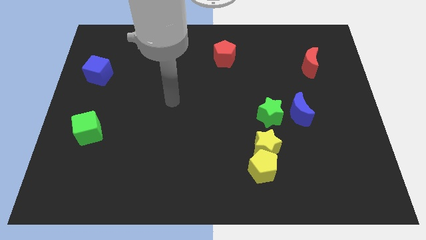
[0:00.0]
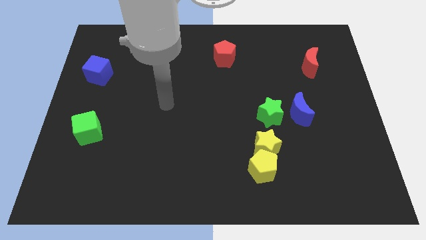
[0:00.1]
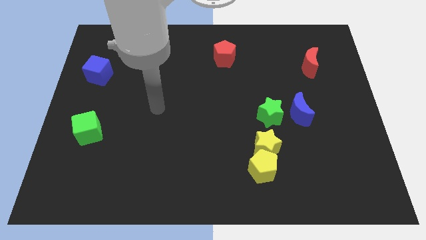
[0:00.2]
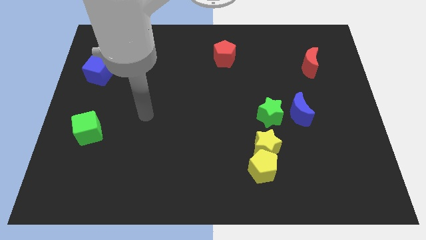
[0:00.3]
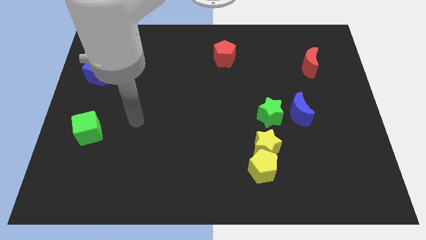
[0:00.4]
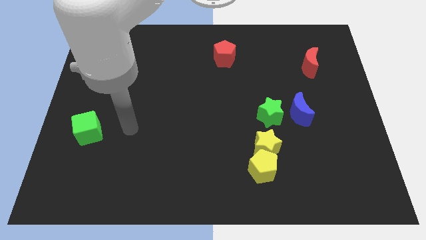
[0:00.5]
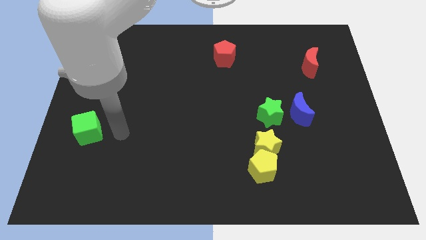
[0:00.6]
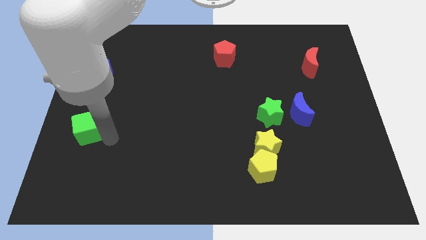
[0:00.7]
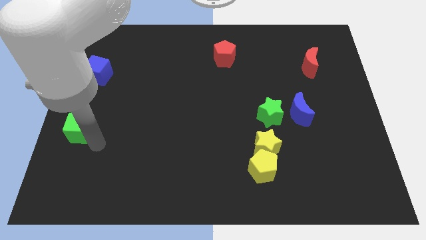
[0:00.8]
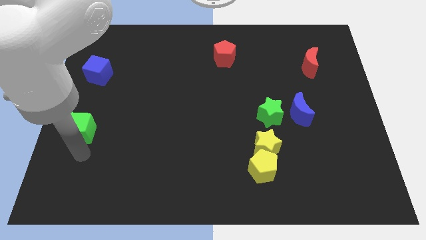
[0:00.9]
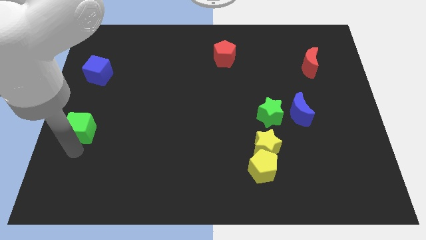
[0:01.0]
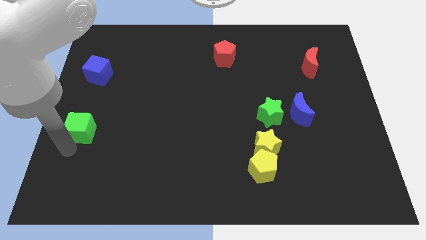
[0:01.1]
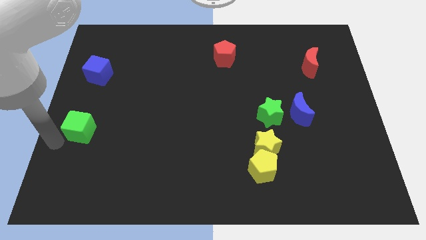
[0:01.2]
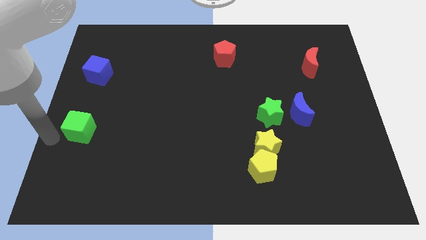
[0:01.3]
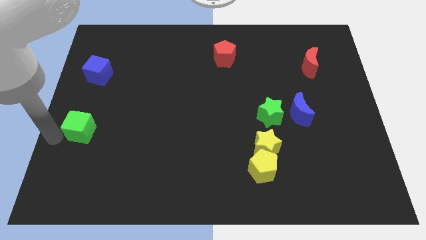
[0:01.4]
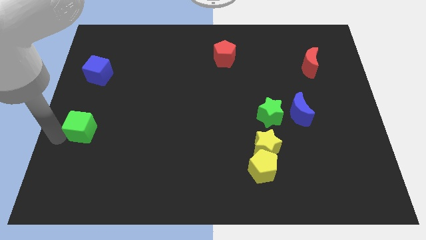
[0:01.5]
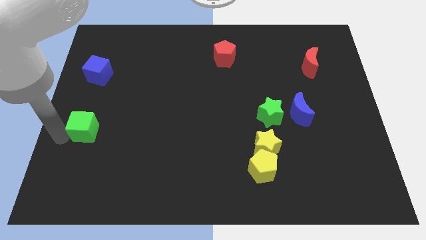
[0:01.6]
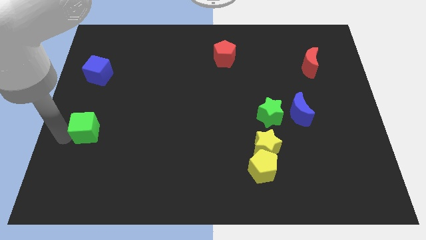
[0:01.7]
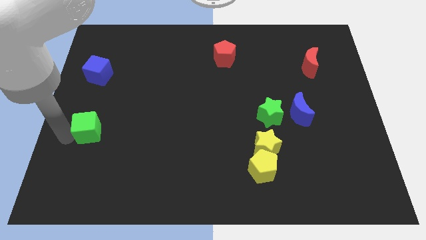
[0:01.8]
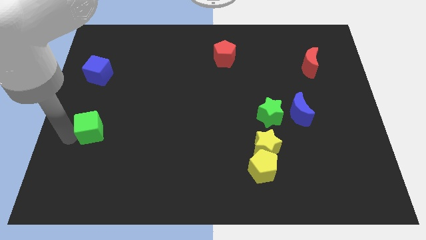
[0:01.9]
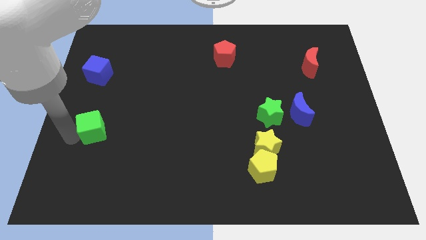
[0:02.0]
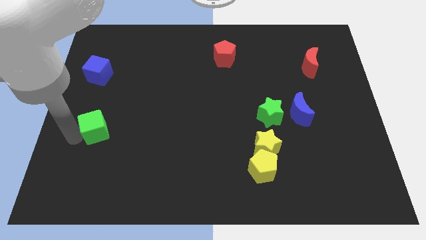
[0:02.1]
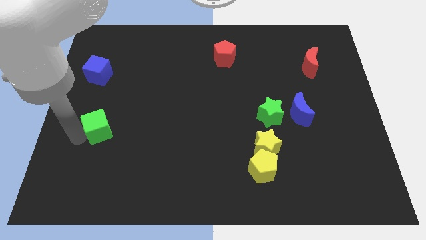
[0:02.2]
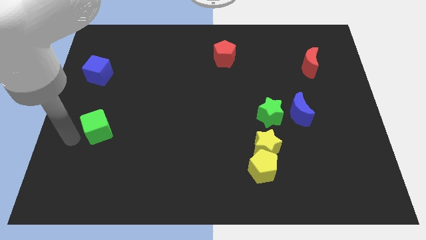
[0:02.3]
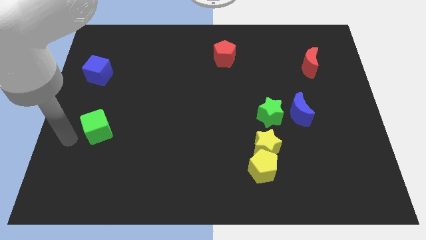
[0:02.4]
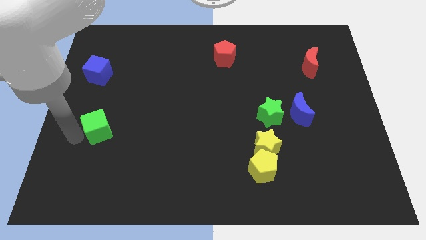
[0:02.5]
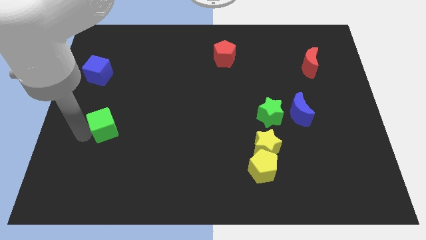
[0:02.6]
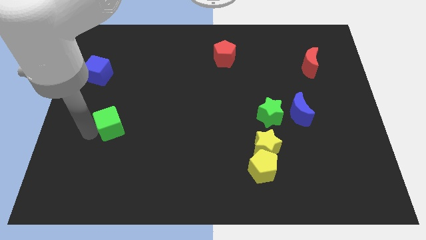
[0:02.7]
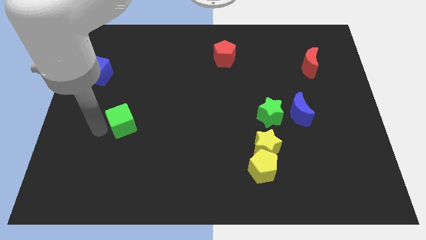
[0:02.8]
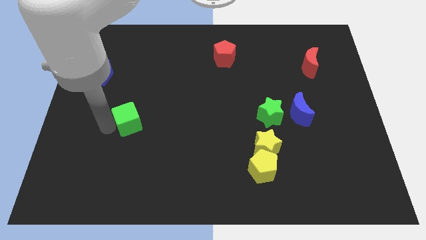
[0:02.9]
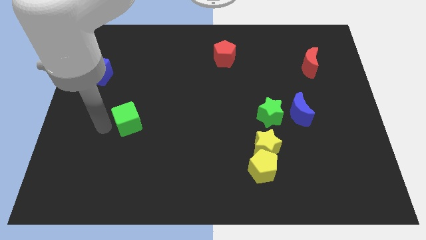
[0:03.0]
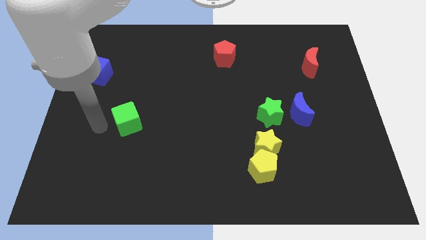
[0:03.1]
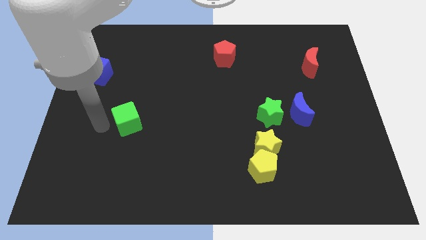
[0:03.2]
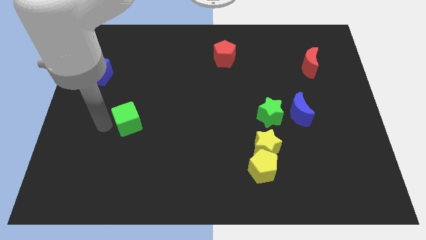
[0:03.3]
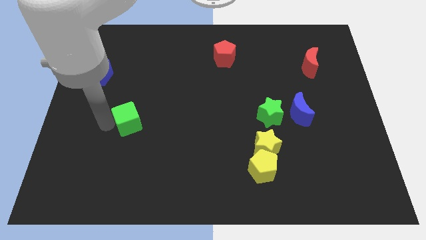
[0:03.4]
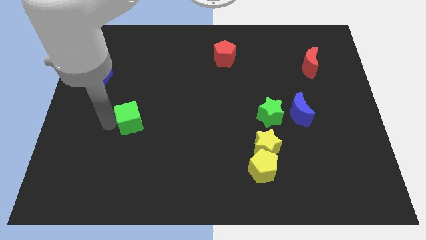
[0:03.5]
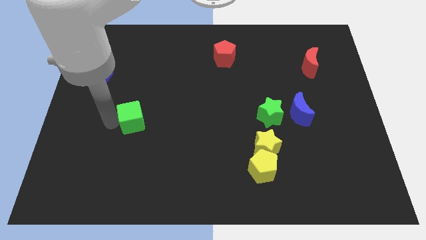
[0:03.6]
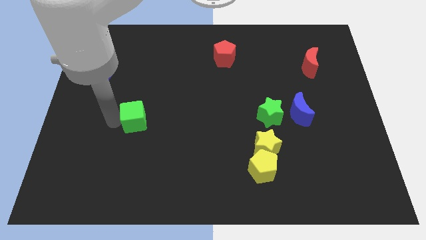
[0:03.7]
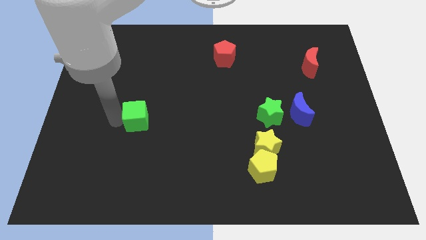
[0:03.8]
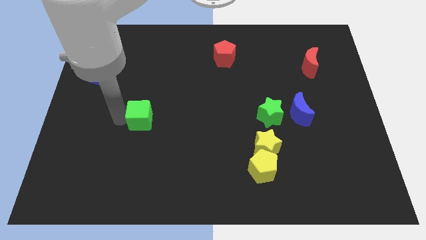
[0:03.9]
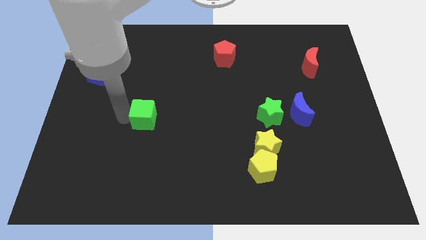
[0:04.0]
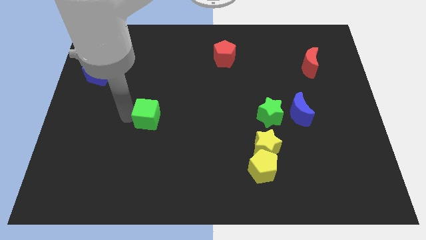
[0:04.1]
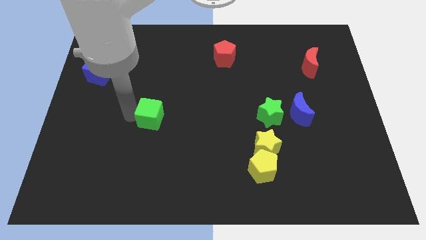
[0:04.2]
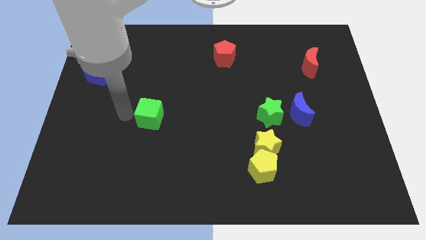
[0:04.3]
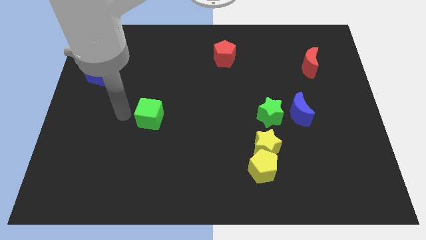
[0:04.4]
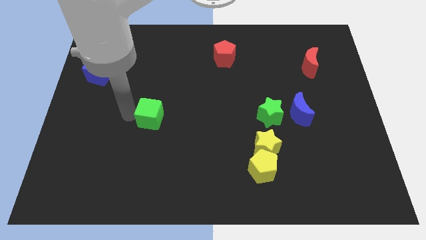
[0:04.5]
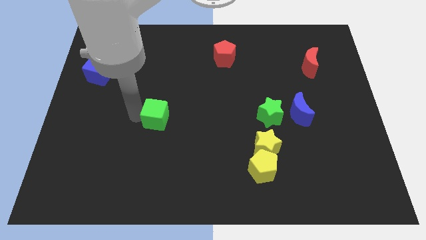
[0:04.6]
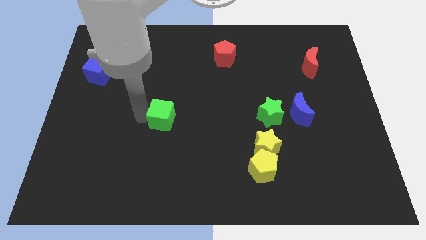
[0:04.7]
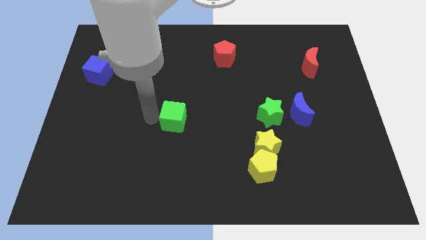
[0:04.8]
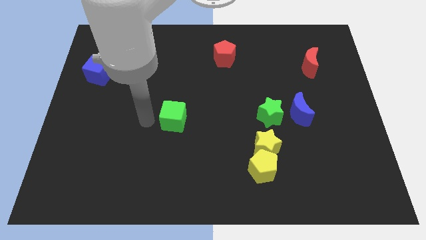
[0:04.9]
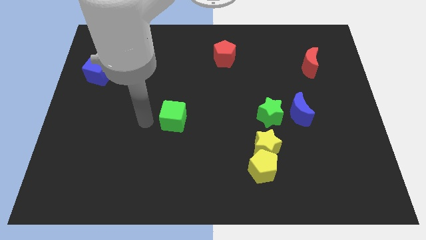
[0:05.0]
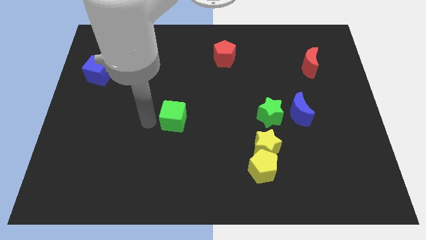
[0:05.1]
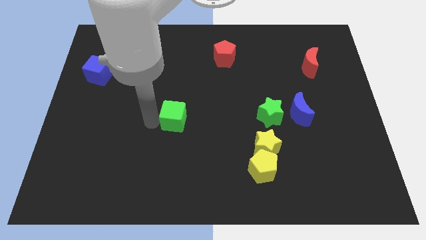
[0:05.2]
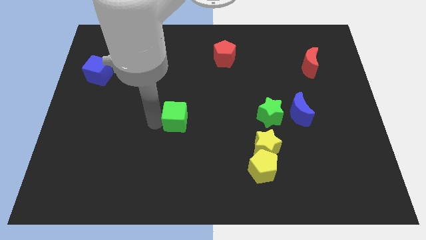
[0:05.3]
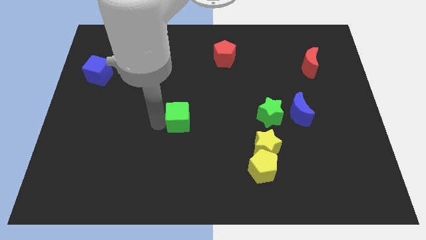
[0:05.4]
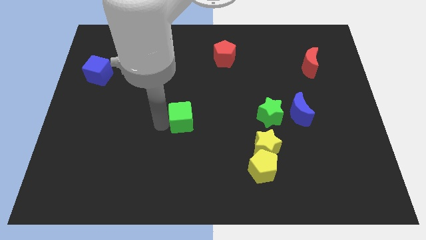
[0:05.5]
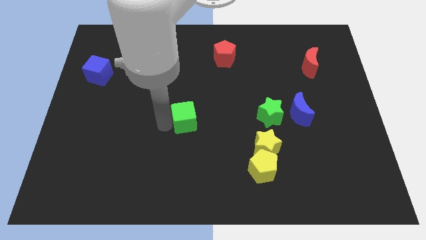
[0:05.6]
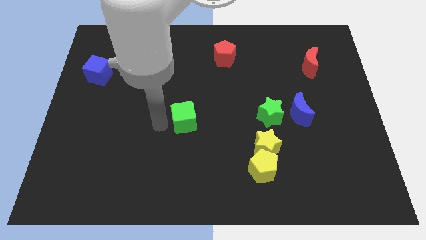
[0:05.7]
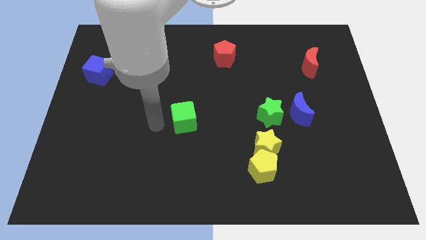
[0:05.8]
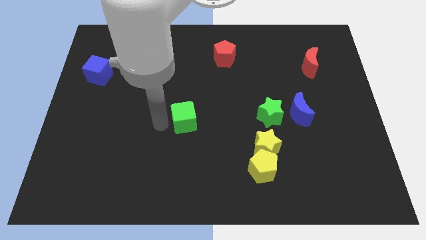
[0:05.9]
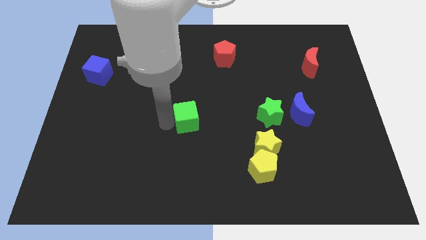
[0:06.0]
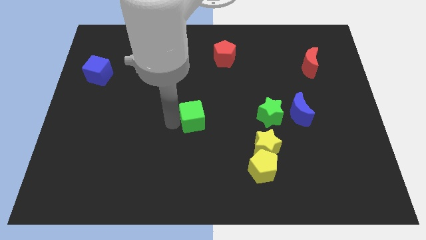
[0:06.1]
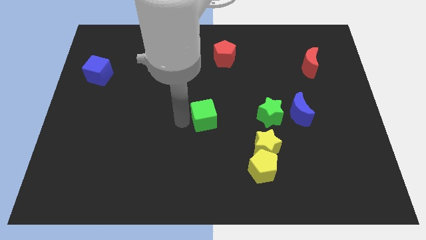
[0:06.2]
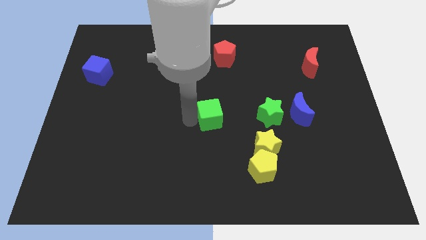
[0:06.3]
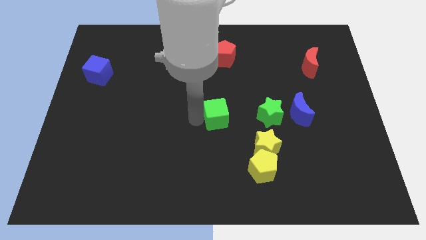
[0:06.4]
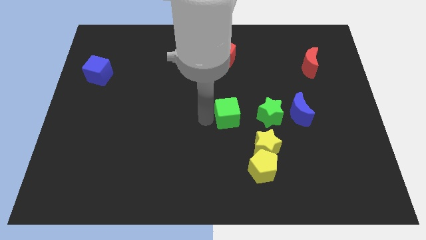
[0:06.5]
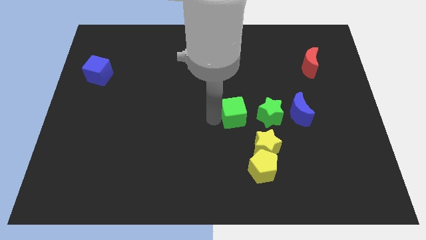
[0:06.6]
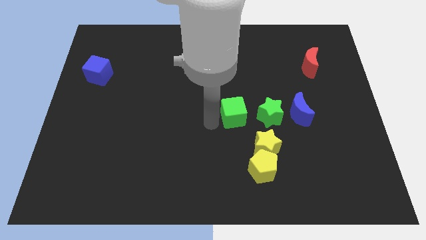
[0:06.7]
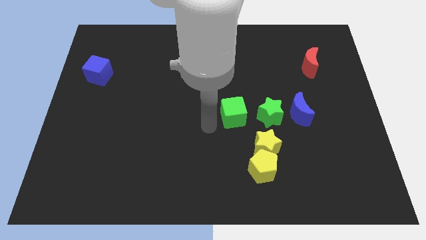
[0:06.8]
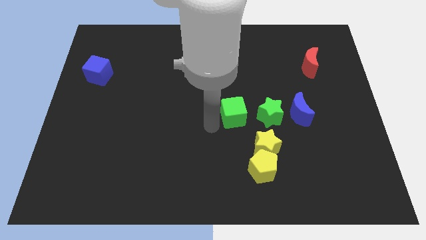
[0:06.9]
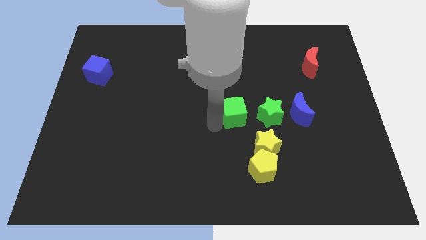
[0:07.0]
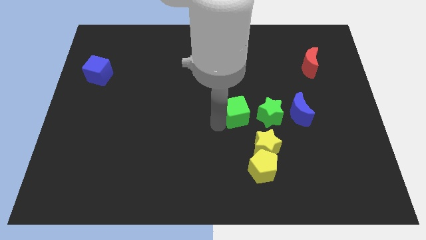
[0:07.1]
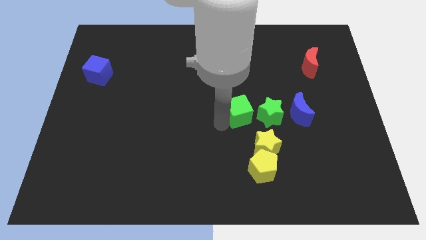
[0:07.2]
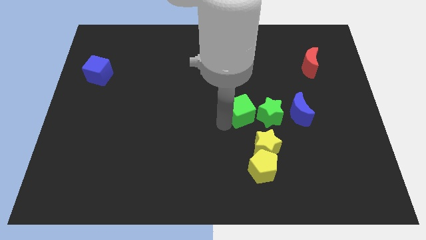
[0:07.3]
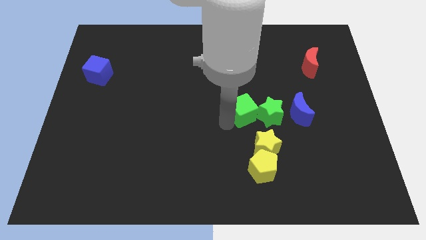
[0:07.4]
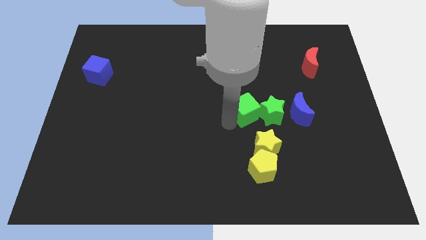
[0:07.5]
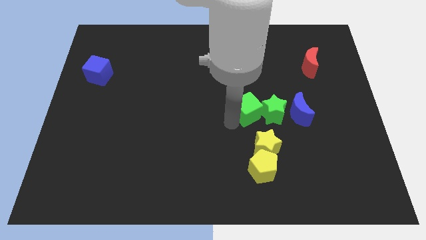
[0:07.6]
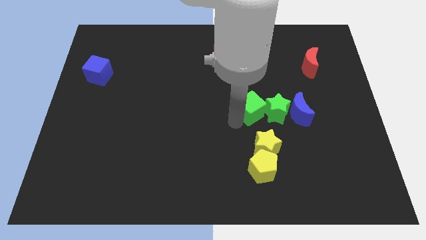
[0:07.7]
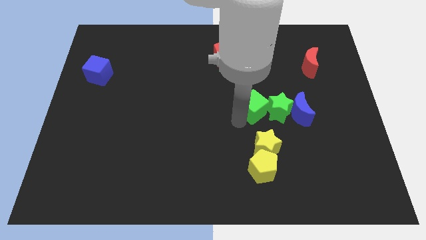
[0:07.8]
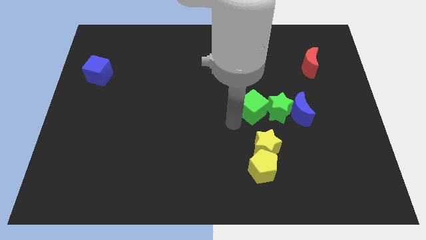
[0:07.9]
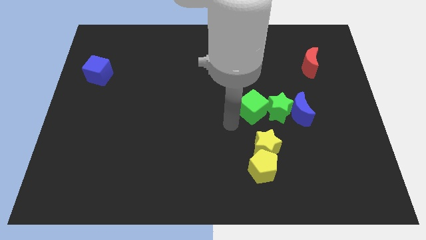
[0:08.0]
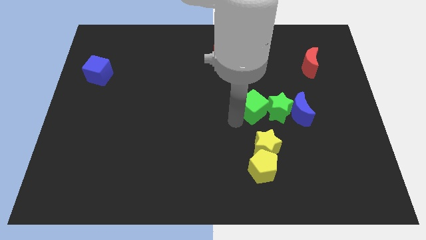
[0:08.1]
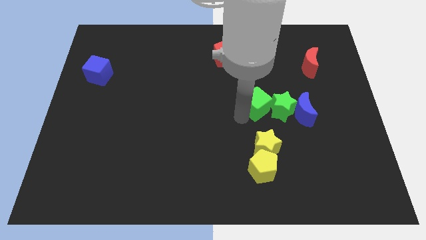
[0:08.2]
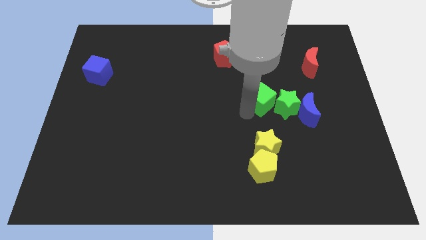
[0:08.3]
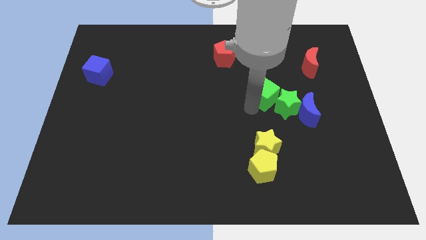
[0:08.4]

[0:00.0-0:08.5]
push the green cube diagonally up and to the left of the blue moon
